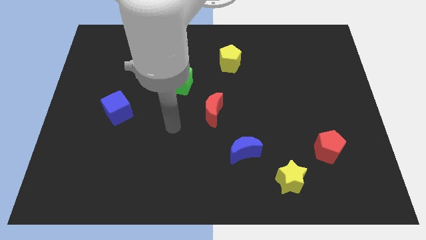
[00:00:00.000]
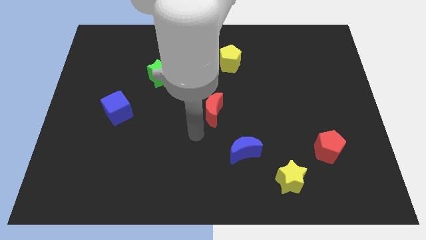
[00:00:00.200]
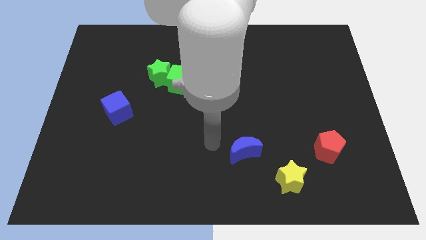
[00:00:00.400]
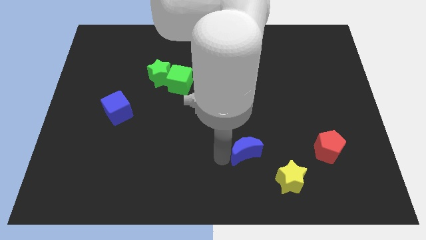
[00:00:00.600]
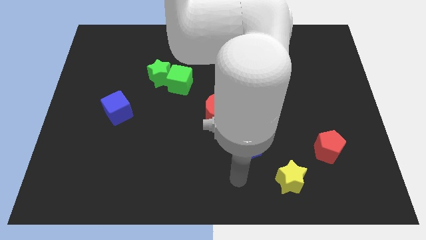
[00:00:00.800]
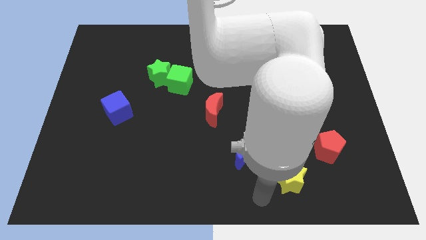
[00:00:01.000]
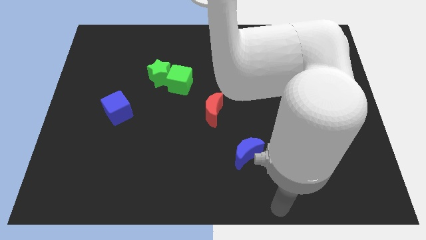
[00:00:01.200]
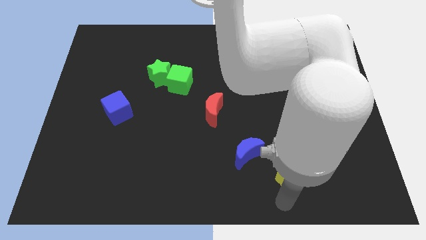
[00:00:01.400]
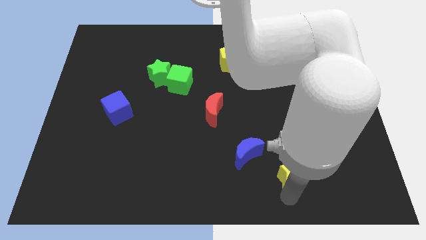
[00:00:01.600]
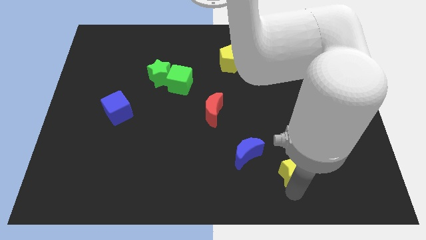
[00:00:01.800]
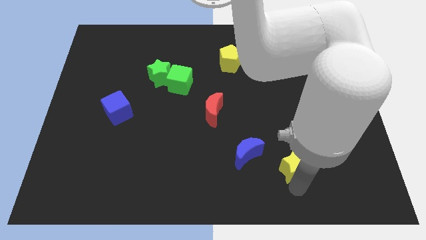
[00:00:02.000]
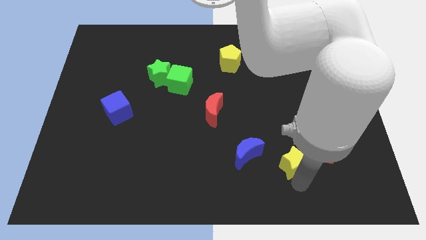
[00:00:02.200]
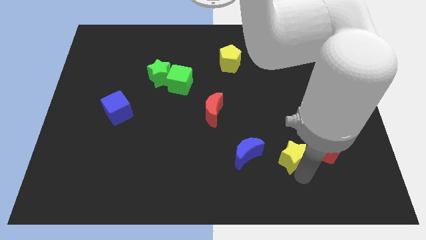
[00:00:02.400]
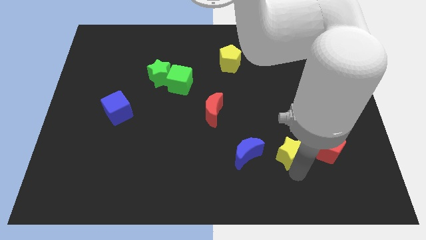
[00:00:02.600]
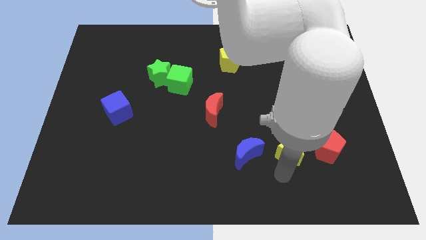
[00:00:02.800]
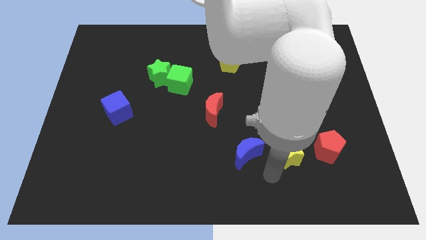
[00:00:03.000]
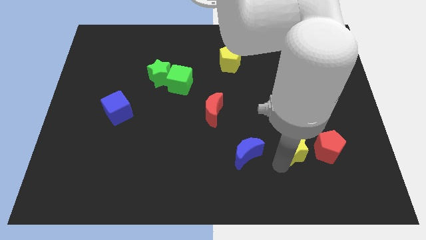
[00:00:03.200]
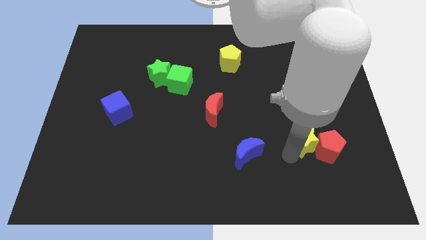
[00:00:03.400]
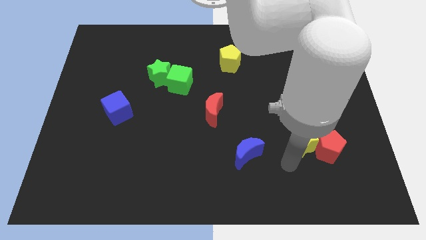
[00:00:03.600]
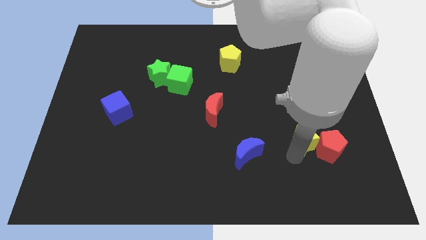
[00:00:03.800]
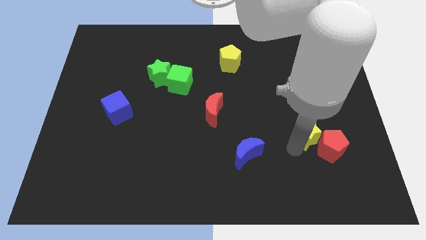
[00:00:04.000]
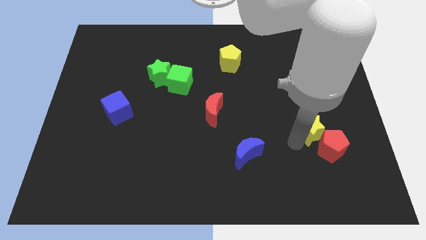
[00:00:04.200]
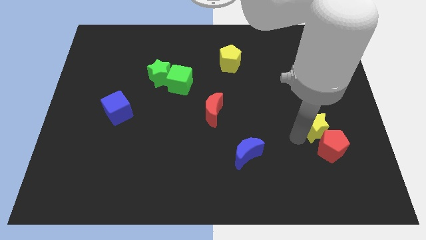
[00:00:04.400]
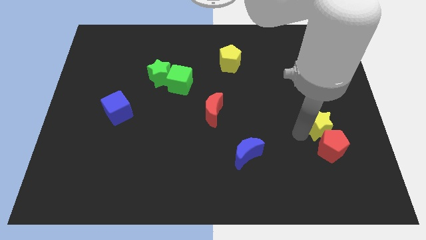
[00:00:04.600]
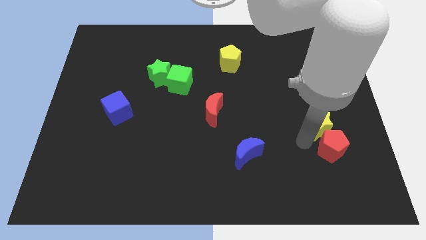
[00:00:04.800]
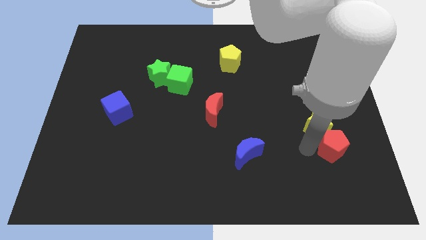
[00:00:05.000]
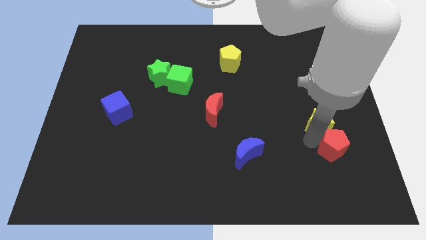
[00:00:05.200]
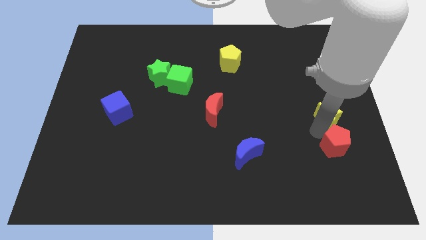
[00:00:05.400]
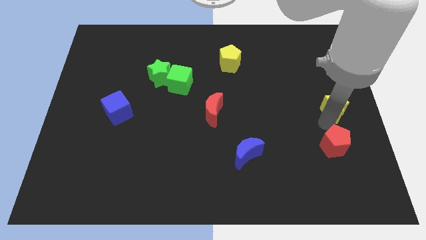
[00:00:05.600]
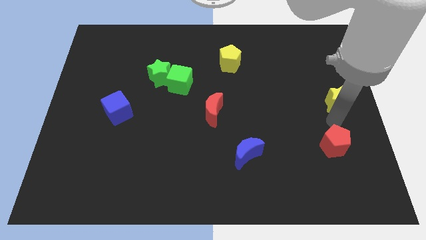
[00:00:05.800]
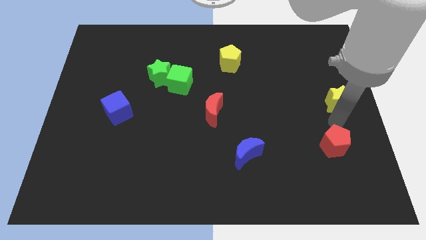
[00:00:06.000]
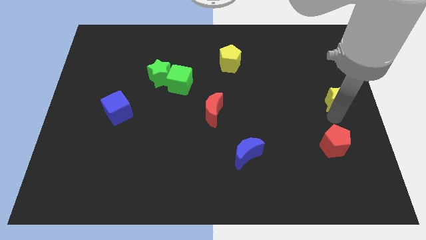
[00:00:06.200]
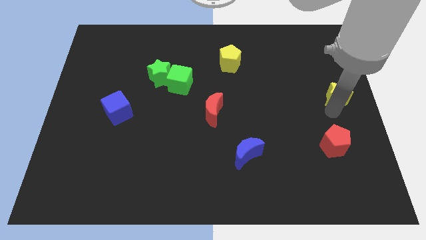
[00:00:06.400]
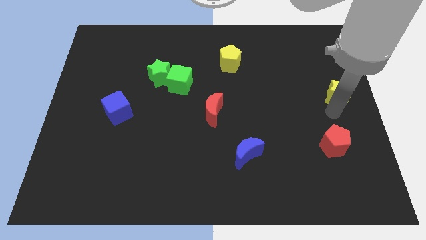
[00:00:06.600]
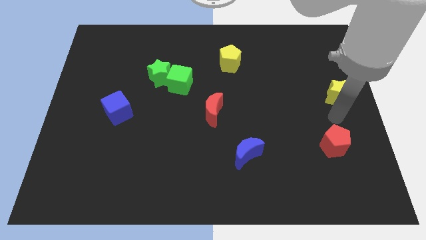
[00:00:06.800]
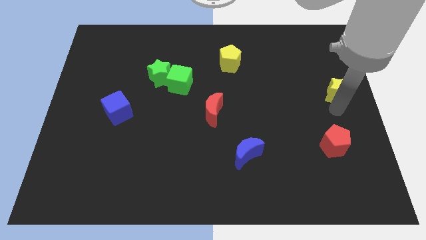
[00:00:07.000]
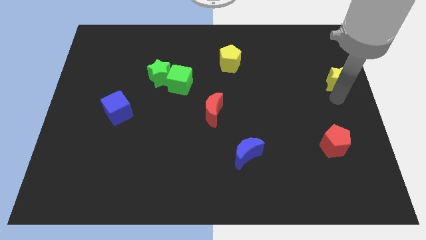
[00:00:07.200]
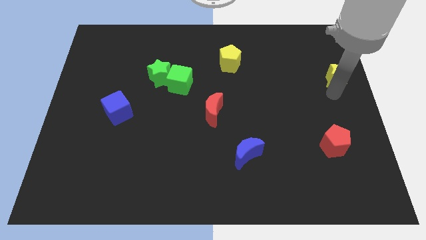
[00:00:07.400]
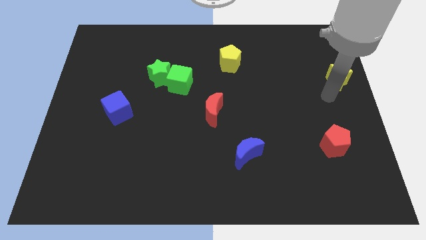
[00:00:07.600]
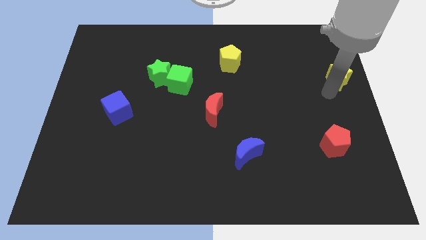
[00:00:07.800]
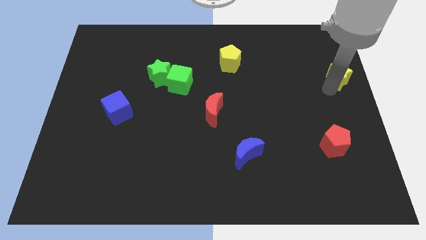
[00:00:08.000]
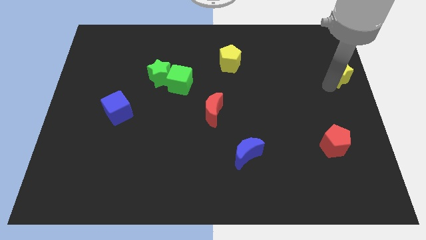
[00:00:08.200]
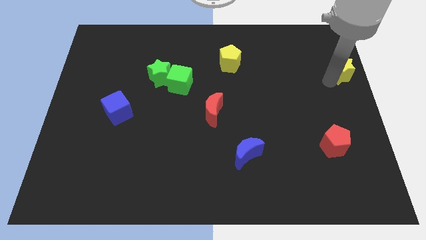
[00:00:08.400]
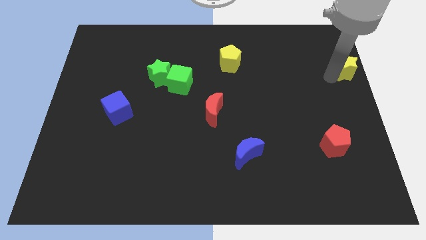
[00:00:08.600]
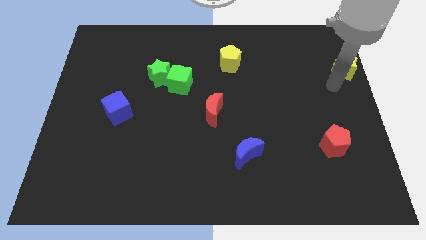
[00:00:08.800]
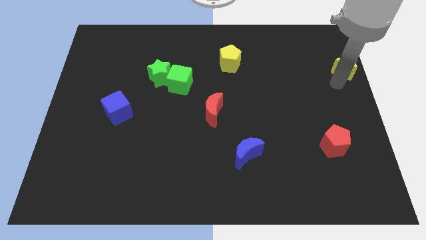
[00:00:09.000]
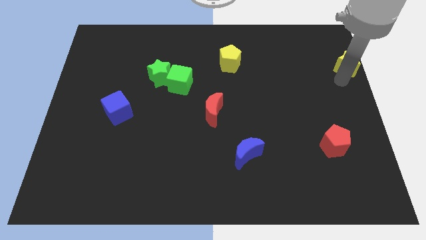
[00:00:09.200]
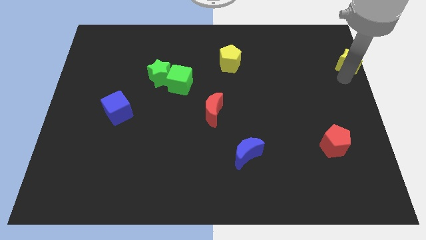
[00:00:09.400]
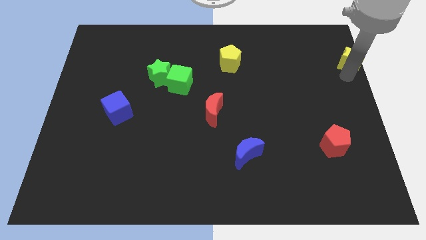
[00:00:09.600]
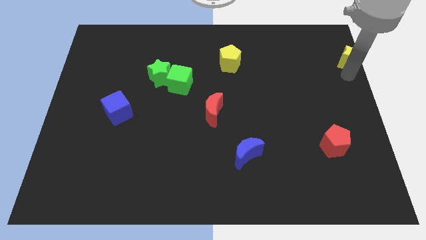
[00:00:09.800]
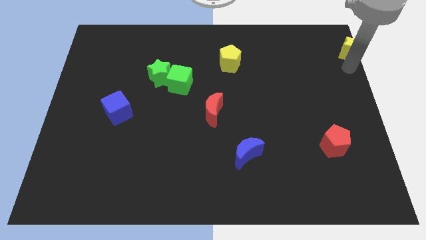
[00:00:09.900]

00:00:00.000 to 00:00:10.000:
push the yellow star to the top right corner

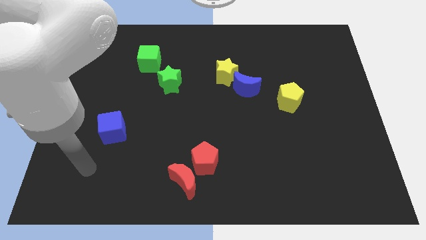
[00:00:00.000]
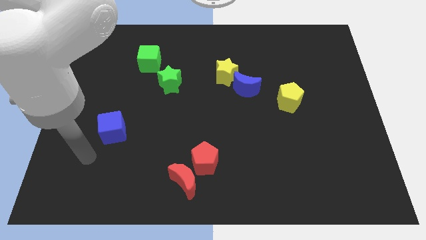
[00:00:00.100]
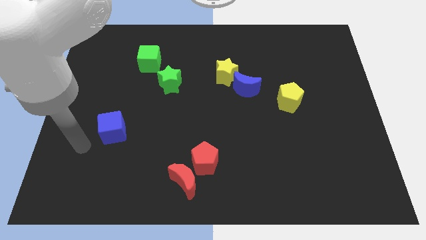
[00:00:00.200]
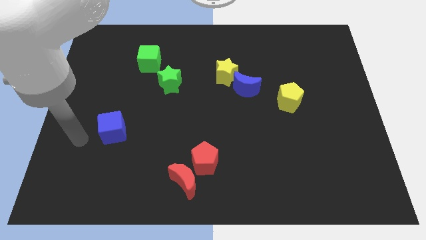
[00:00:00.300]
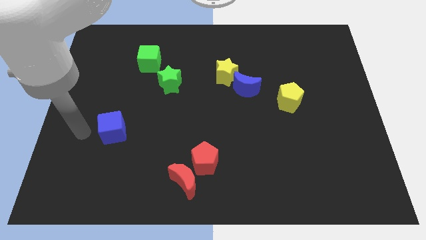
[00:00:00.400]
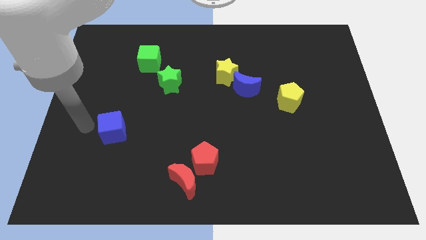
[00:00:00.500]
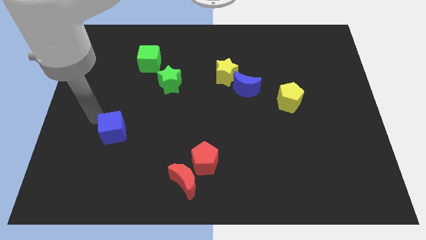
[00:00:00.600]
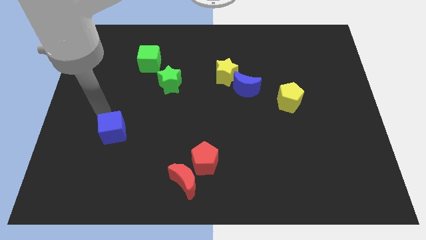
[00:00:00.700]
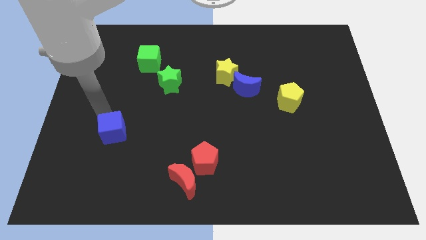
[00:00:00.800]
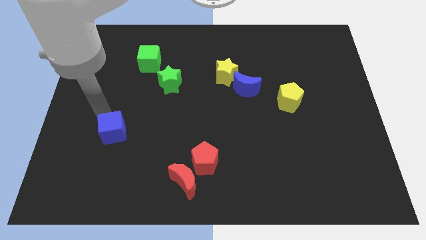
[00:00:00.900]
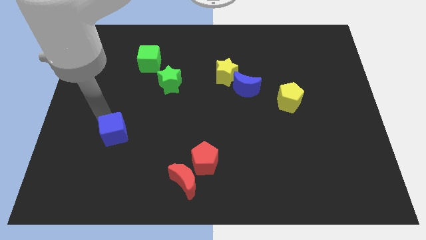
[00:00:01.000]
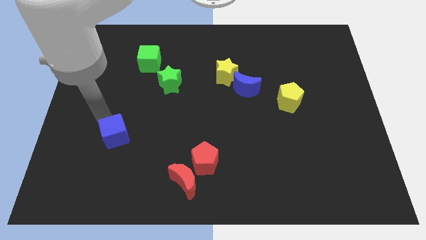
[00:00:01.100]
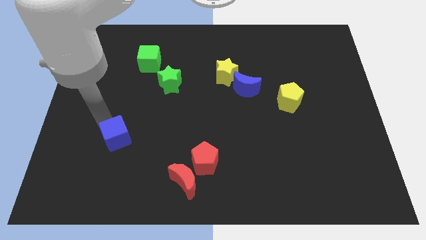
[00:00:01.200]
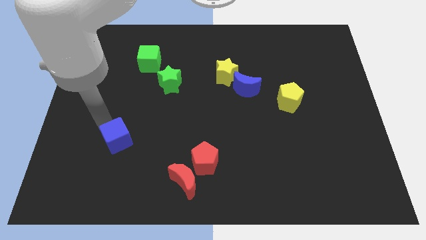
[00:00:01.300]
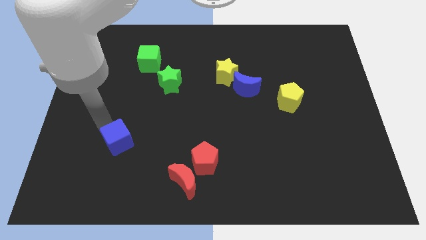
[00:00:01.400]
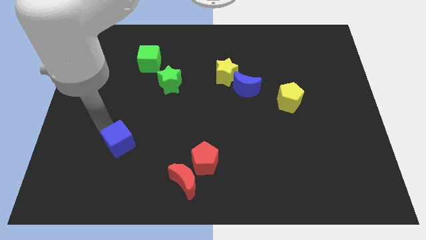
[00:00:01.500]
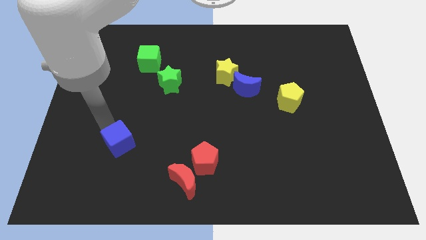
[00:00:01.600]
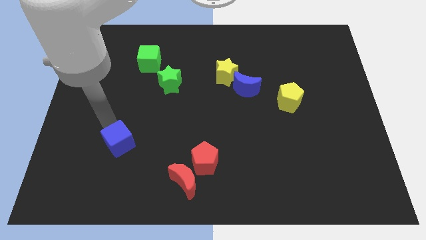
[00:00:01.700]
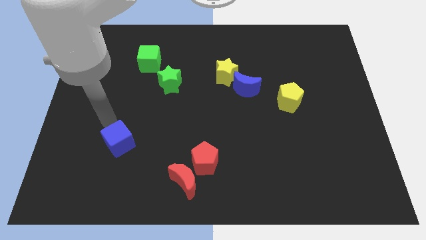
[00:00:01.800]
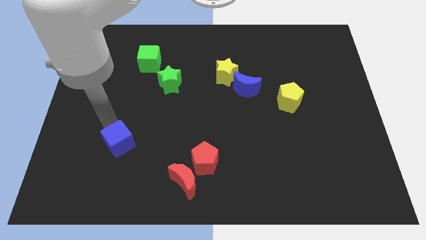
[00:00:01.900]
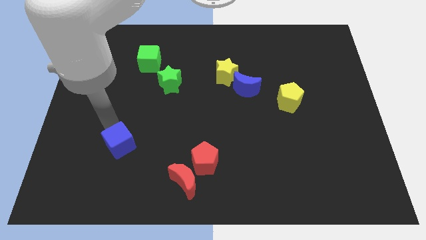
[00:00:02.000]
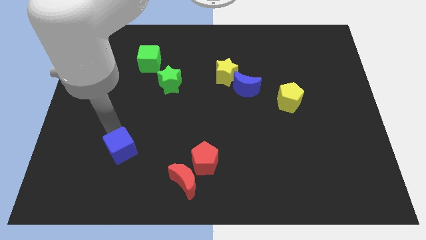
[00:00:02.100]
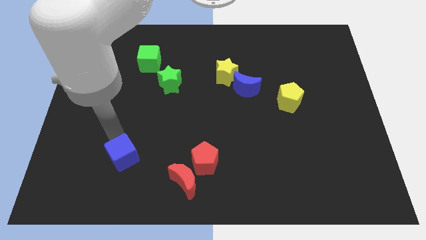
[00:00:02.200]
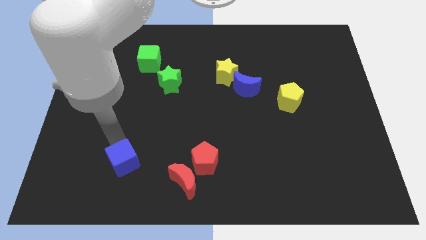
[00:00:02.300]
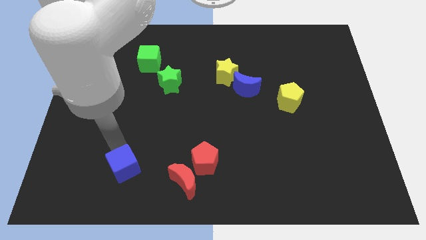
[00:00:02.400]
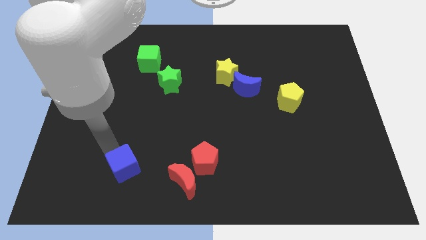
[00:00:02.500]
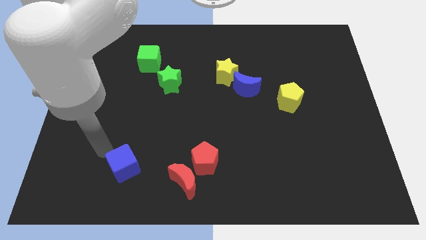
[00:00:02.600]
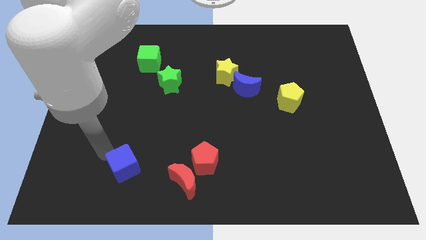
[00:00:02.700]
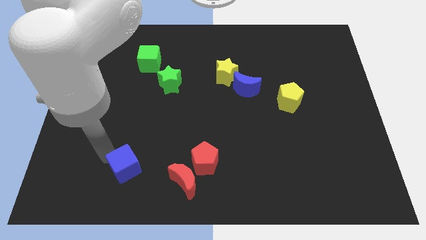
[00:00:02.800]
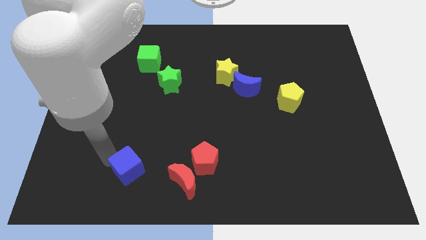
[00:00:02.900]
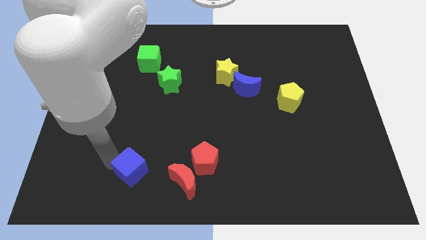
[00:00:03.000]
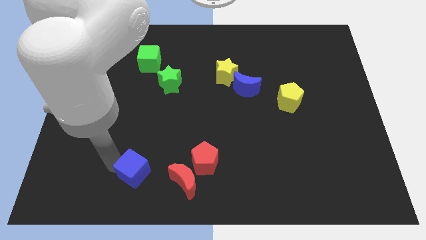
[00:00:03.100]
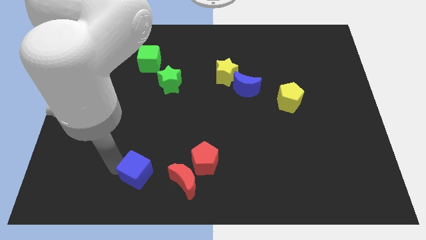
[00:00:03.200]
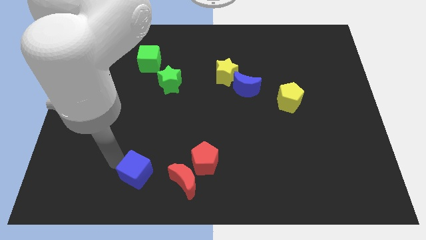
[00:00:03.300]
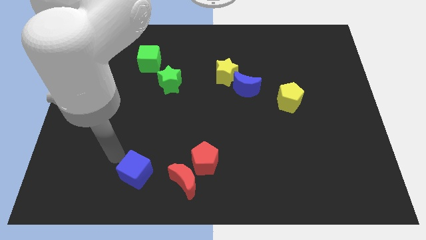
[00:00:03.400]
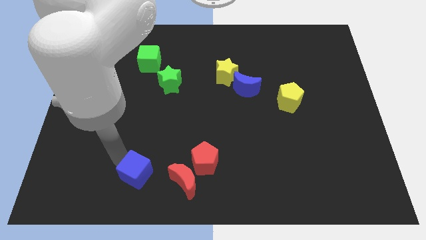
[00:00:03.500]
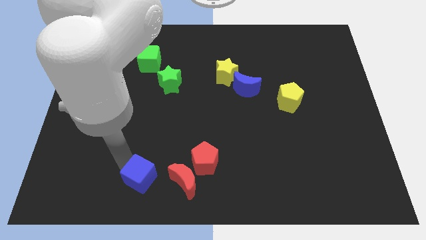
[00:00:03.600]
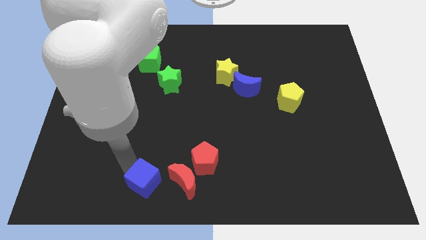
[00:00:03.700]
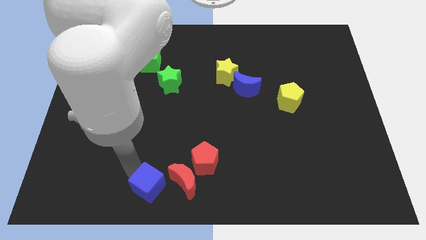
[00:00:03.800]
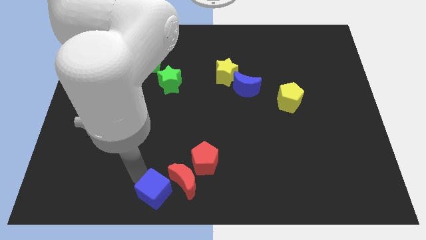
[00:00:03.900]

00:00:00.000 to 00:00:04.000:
put the blue cube to the bottom side
